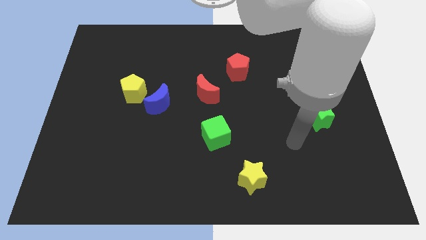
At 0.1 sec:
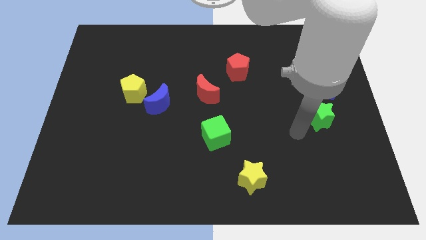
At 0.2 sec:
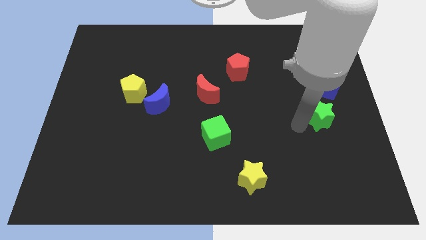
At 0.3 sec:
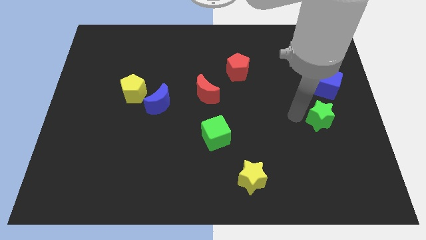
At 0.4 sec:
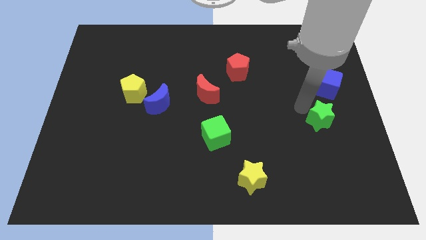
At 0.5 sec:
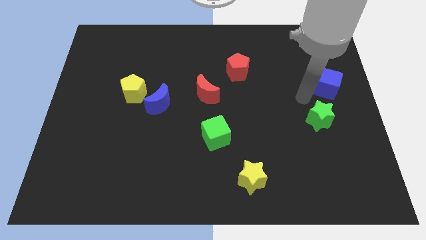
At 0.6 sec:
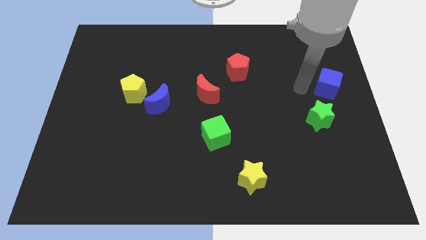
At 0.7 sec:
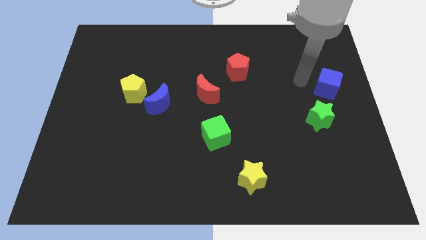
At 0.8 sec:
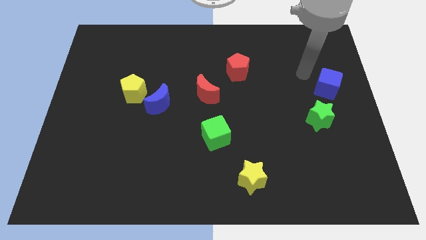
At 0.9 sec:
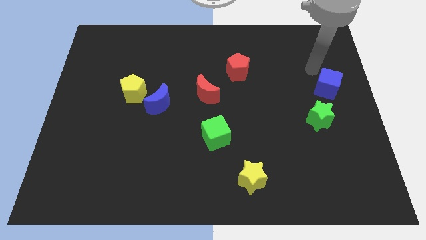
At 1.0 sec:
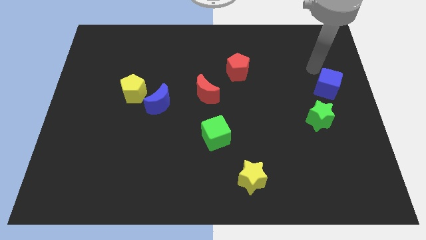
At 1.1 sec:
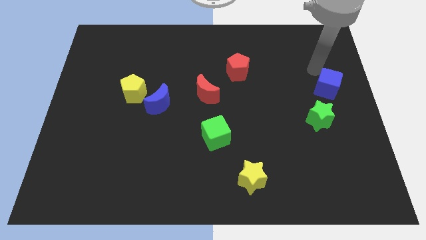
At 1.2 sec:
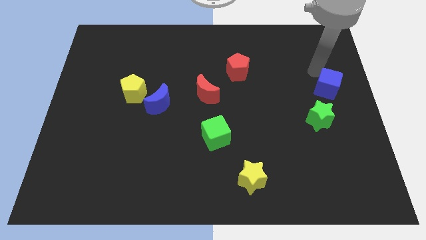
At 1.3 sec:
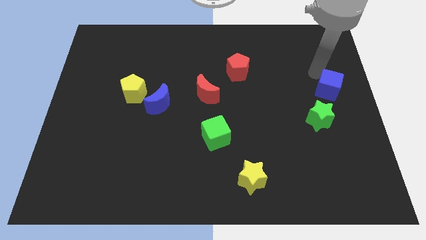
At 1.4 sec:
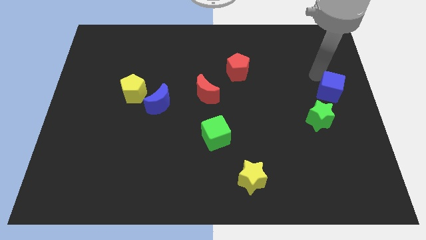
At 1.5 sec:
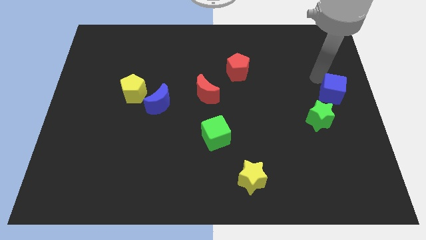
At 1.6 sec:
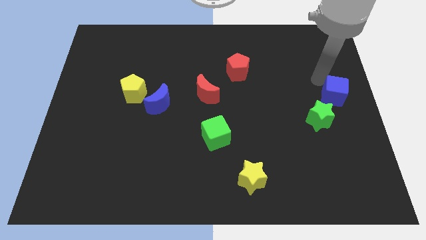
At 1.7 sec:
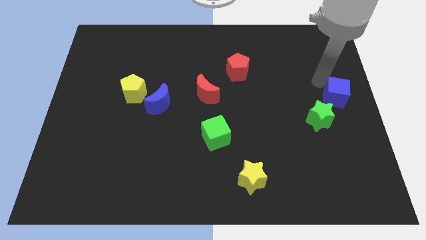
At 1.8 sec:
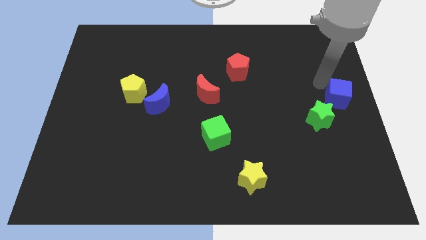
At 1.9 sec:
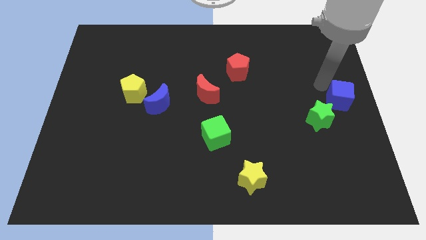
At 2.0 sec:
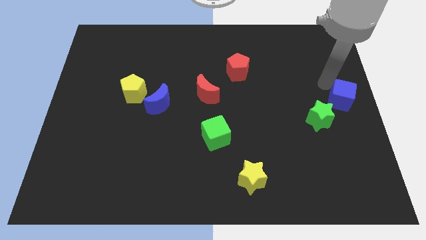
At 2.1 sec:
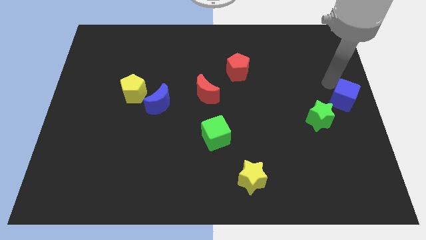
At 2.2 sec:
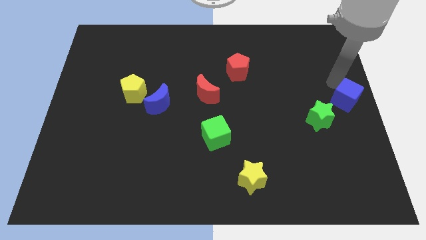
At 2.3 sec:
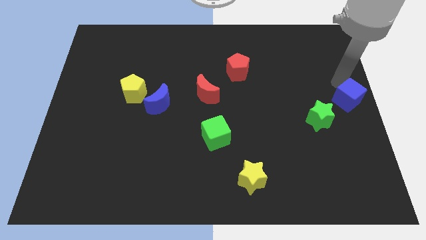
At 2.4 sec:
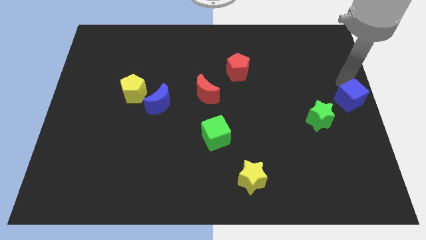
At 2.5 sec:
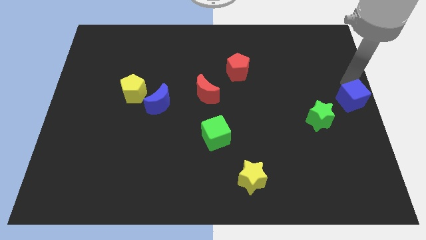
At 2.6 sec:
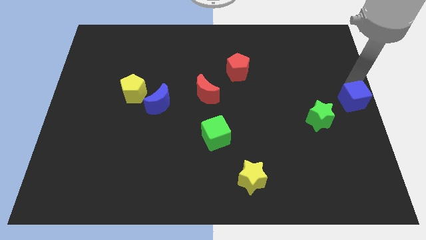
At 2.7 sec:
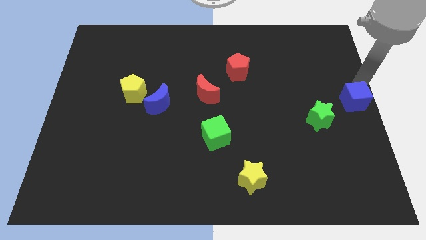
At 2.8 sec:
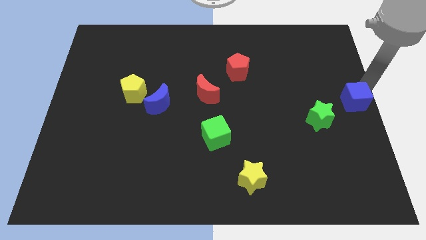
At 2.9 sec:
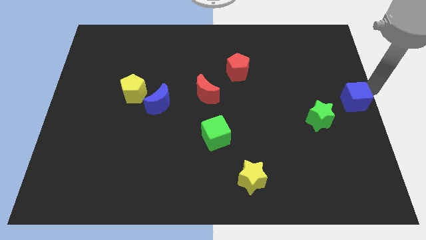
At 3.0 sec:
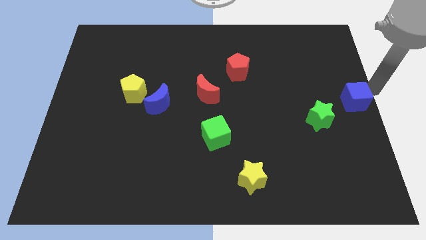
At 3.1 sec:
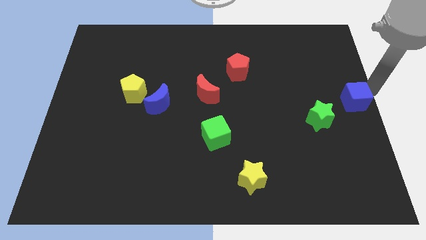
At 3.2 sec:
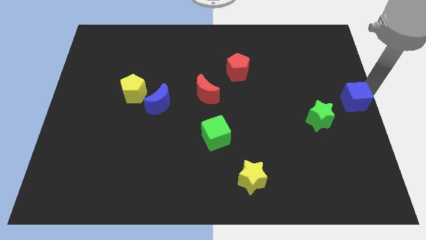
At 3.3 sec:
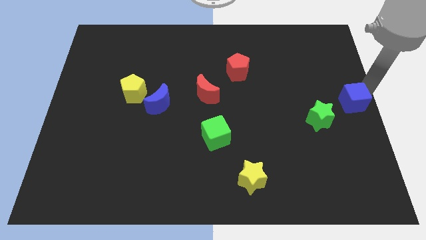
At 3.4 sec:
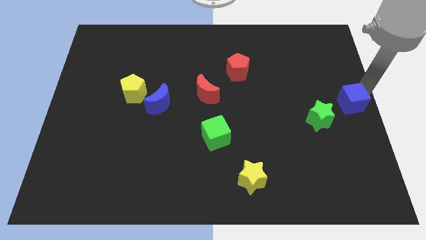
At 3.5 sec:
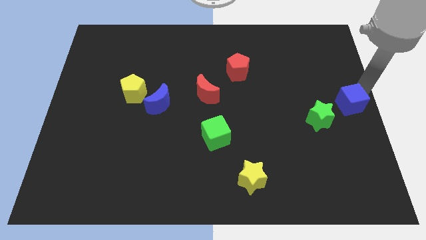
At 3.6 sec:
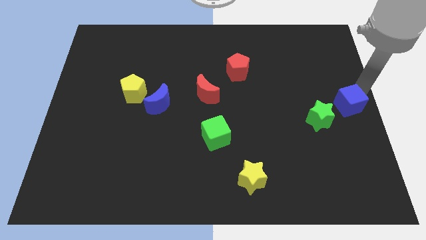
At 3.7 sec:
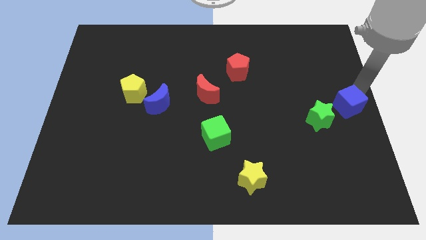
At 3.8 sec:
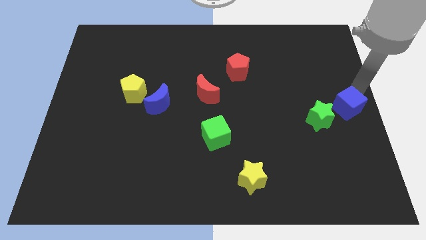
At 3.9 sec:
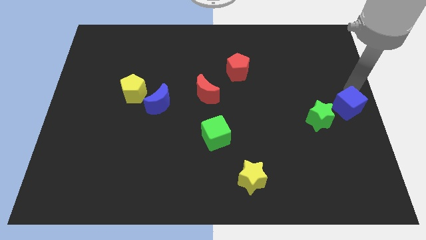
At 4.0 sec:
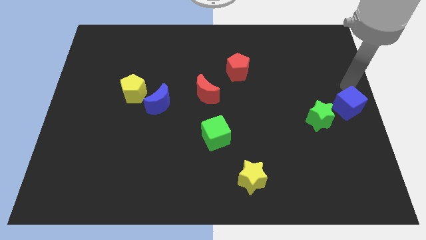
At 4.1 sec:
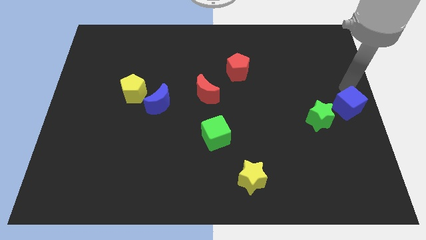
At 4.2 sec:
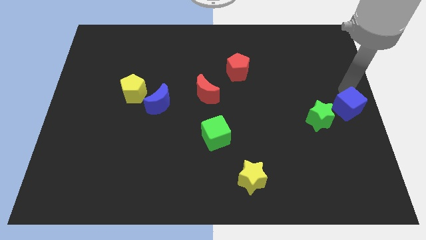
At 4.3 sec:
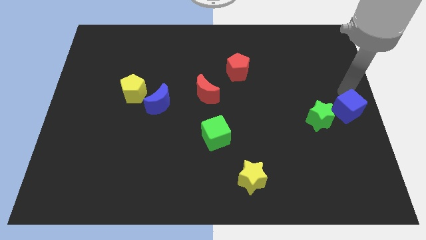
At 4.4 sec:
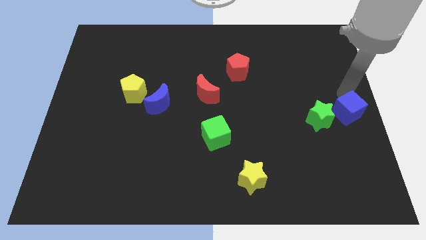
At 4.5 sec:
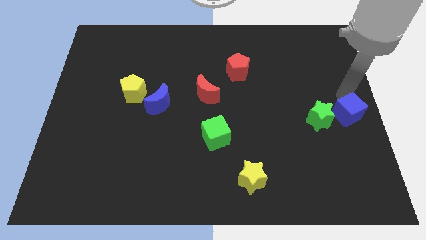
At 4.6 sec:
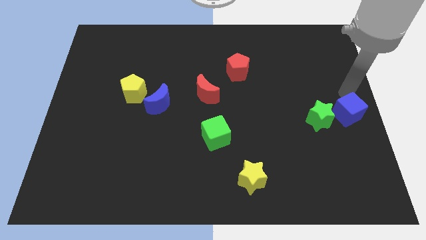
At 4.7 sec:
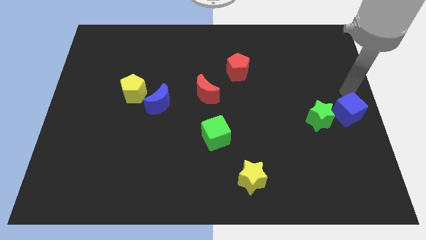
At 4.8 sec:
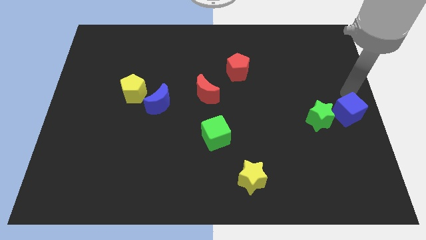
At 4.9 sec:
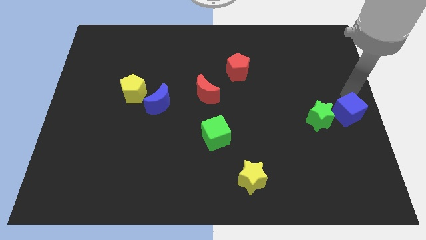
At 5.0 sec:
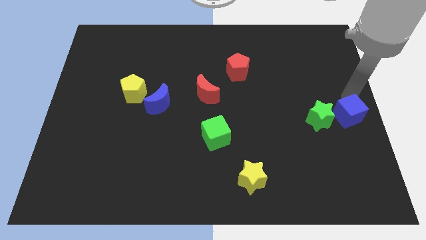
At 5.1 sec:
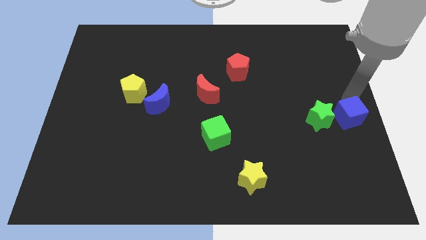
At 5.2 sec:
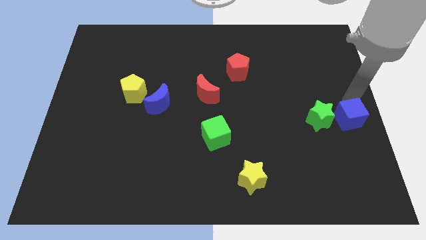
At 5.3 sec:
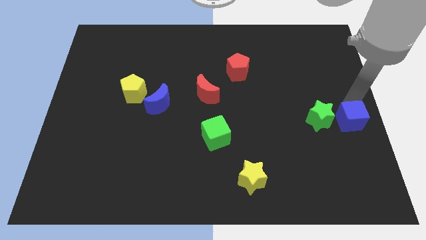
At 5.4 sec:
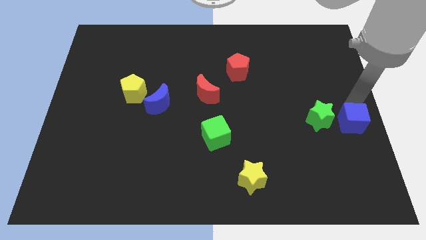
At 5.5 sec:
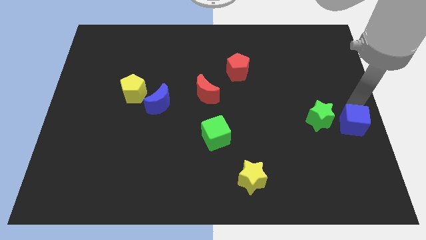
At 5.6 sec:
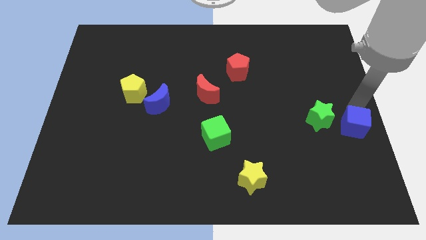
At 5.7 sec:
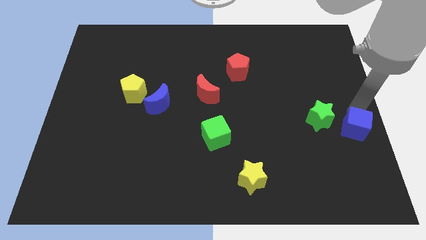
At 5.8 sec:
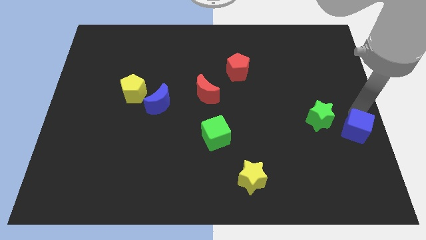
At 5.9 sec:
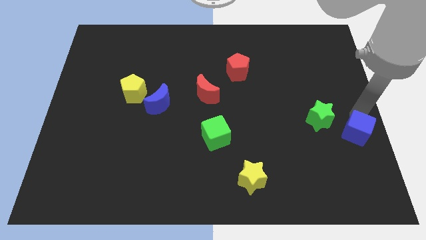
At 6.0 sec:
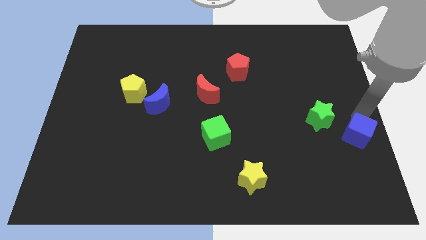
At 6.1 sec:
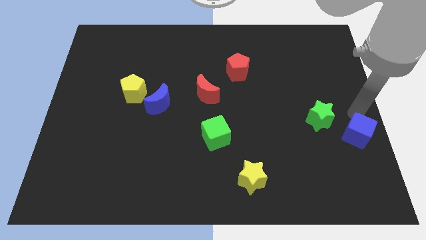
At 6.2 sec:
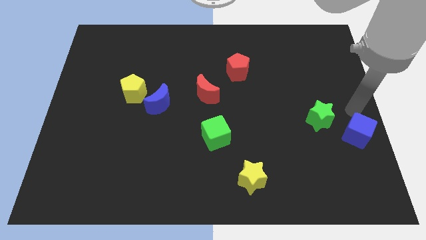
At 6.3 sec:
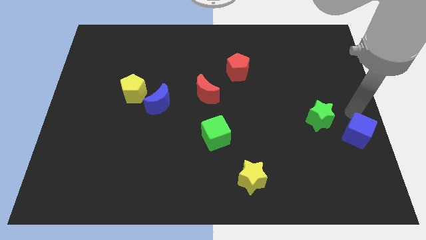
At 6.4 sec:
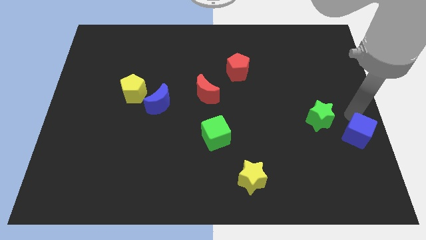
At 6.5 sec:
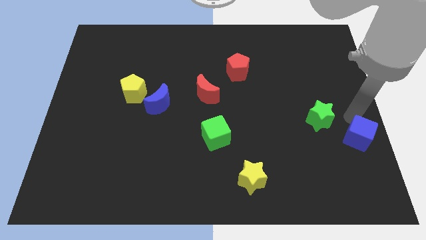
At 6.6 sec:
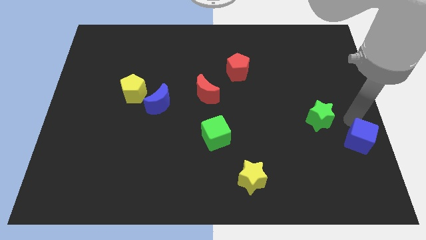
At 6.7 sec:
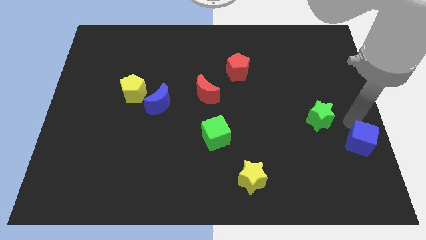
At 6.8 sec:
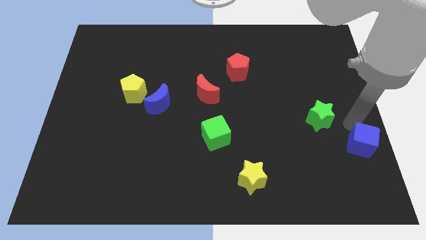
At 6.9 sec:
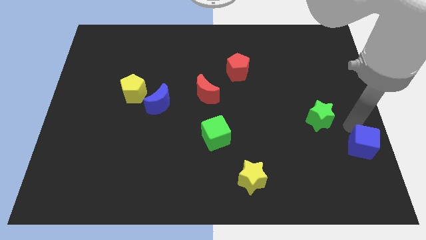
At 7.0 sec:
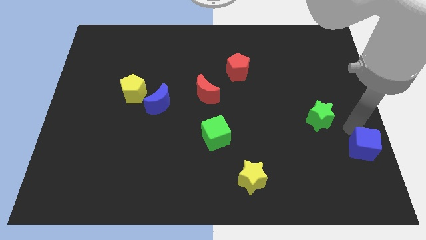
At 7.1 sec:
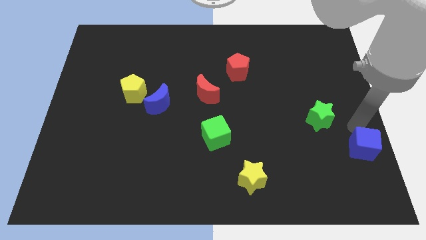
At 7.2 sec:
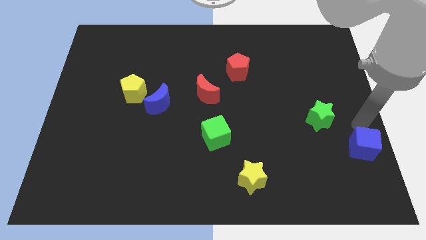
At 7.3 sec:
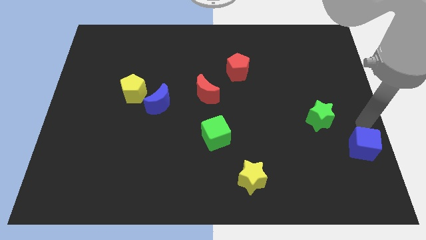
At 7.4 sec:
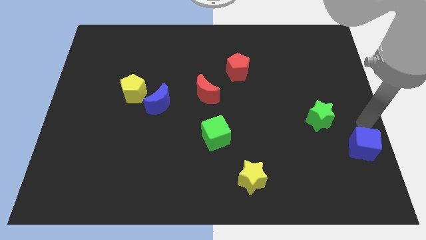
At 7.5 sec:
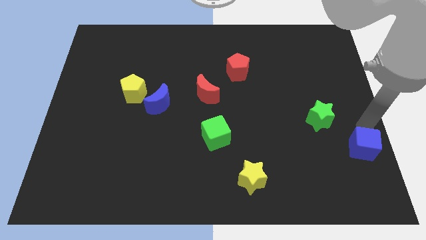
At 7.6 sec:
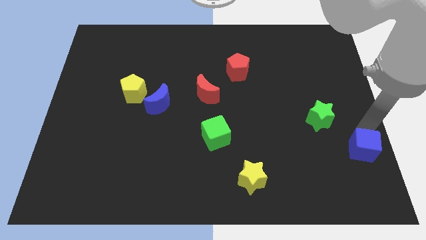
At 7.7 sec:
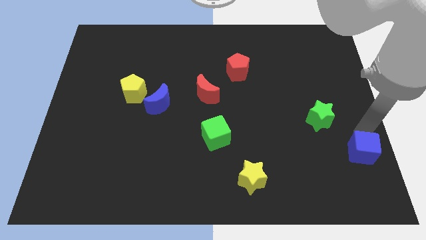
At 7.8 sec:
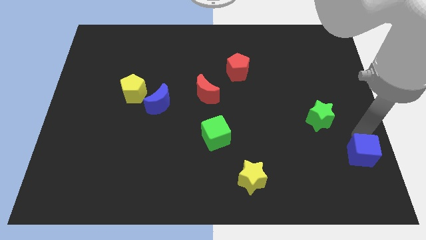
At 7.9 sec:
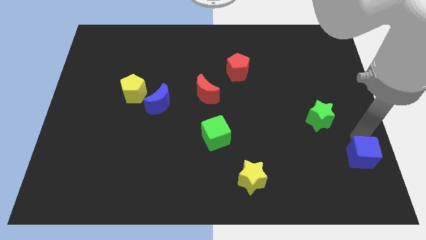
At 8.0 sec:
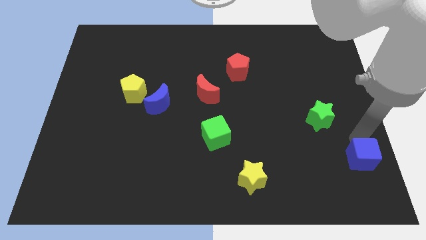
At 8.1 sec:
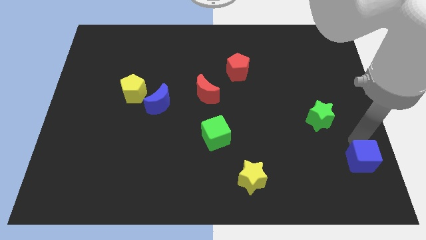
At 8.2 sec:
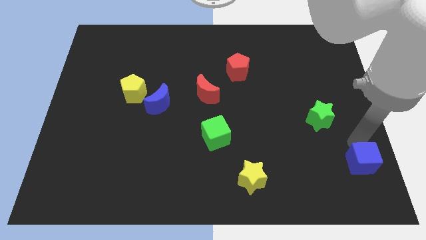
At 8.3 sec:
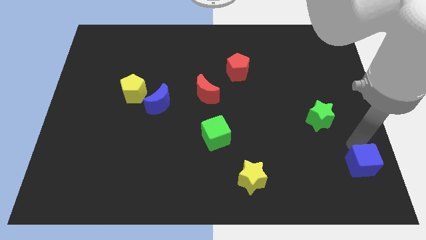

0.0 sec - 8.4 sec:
push the blue cube to the lower right corner
